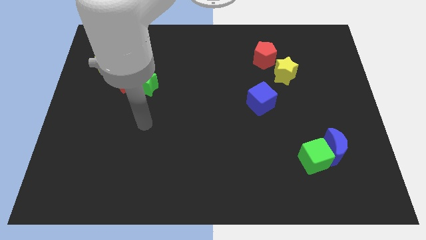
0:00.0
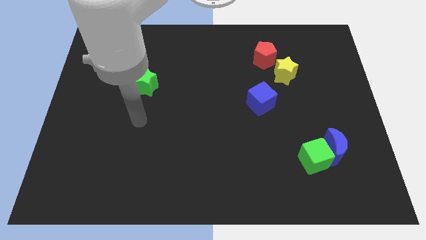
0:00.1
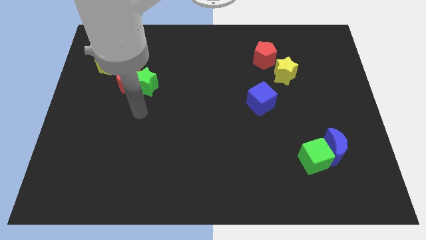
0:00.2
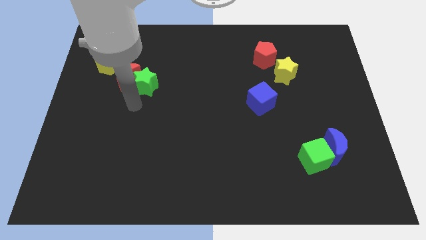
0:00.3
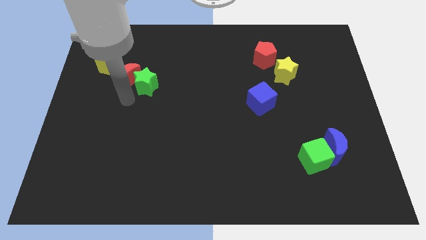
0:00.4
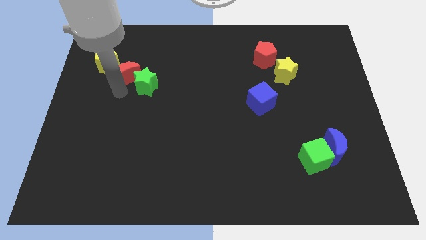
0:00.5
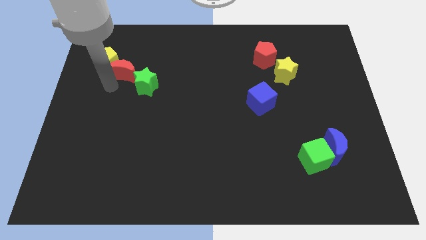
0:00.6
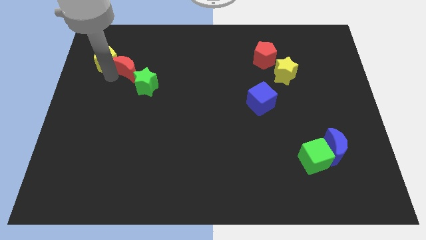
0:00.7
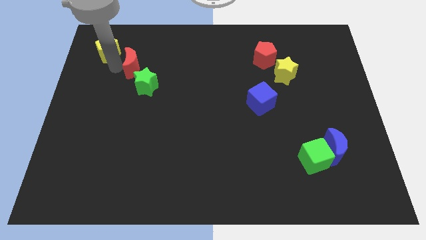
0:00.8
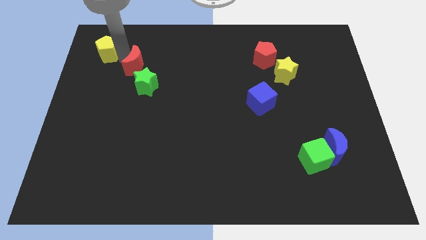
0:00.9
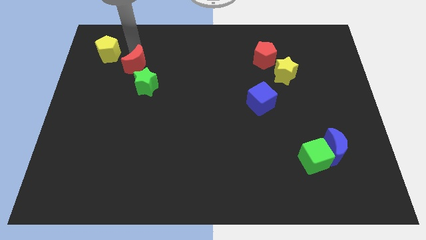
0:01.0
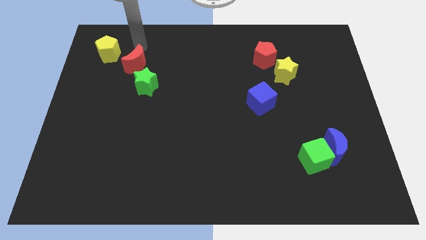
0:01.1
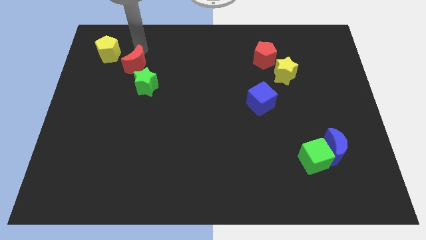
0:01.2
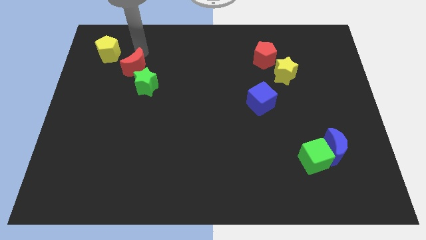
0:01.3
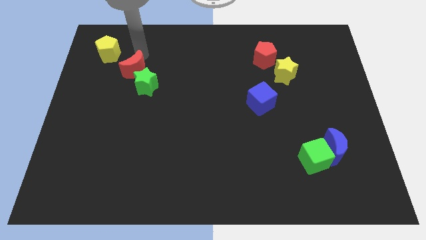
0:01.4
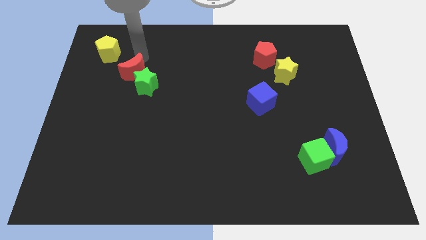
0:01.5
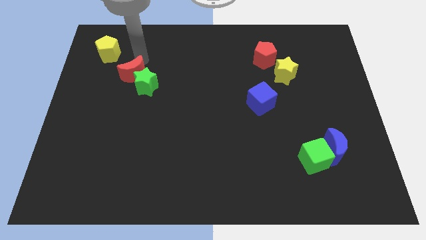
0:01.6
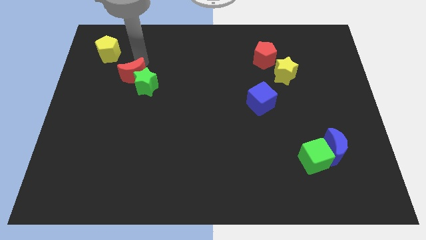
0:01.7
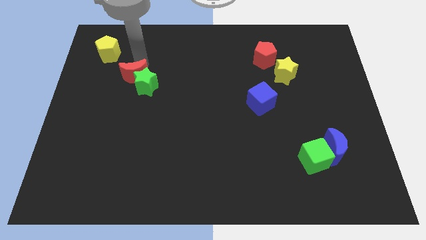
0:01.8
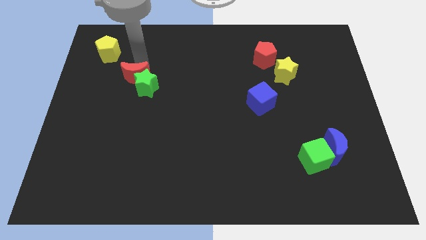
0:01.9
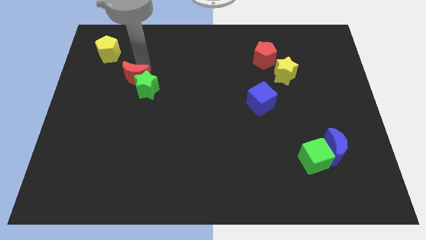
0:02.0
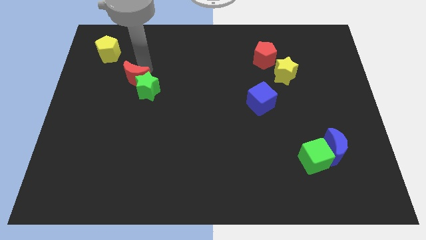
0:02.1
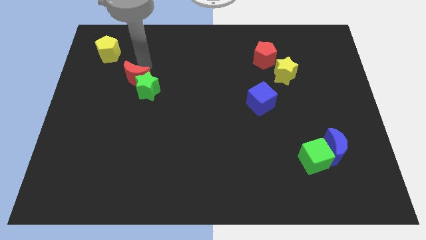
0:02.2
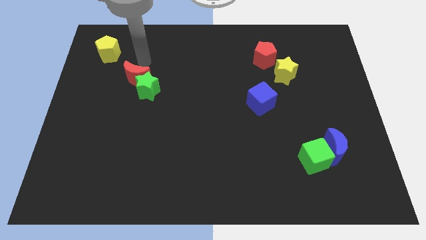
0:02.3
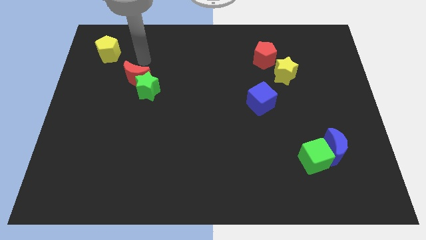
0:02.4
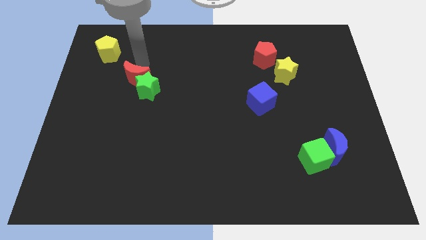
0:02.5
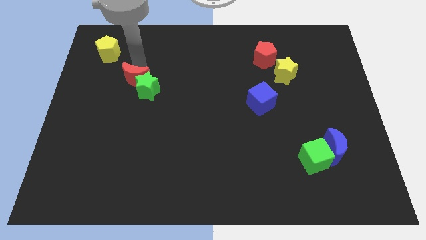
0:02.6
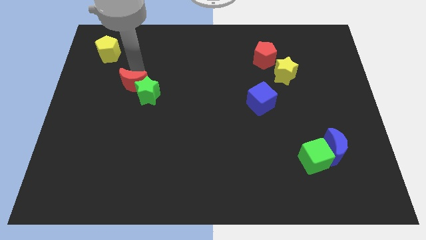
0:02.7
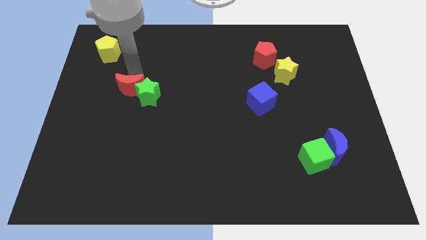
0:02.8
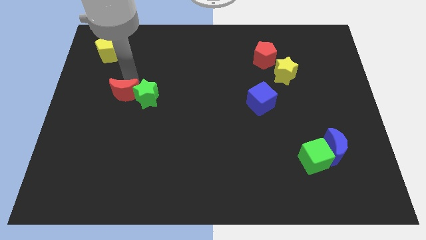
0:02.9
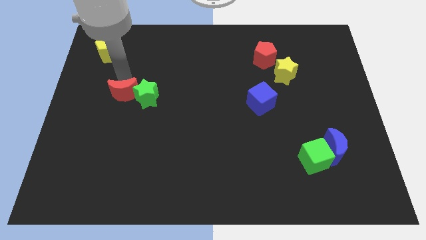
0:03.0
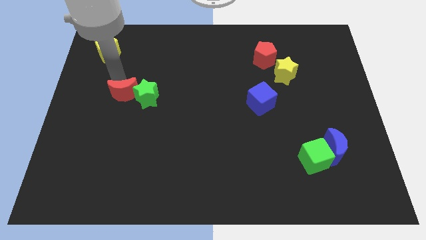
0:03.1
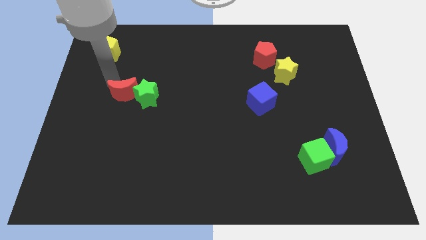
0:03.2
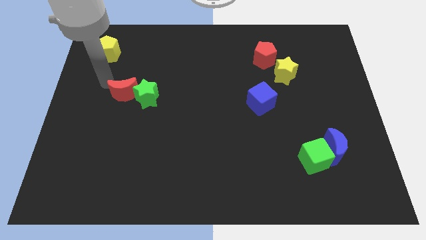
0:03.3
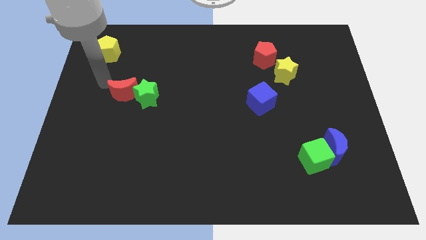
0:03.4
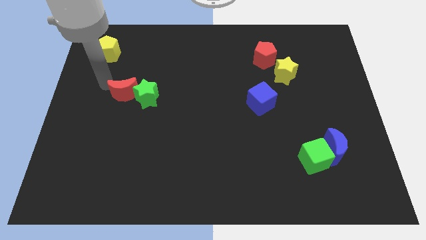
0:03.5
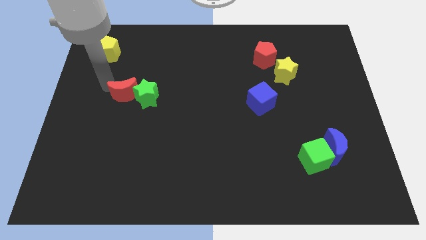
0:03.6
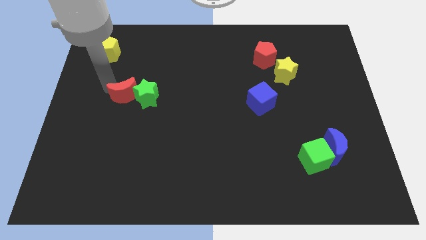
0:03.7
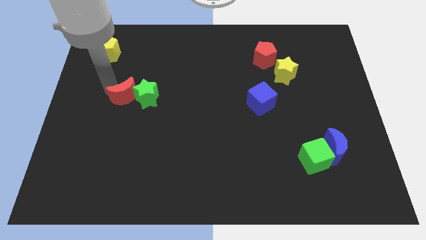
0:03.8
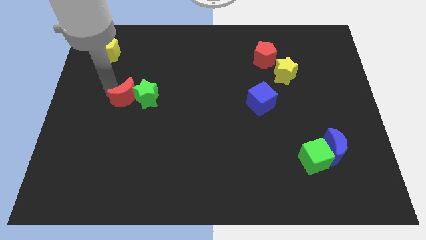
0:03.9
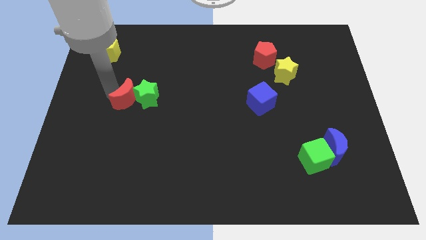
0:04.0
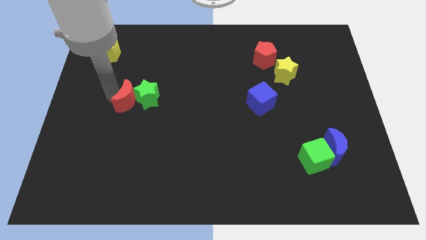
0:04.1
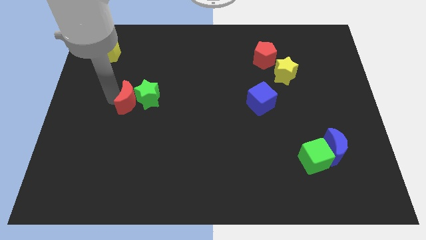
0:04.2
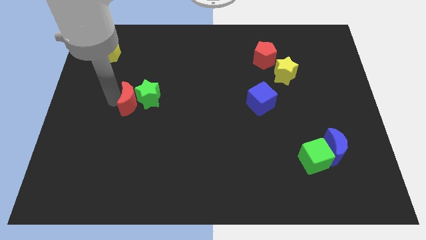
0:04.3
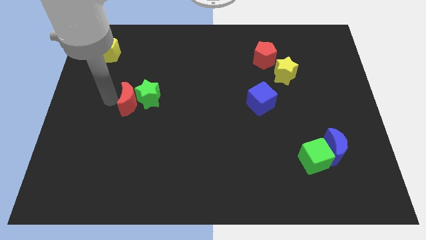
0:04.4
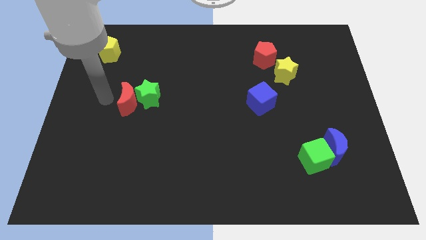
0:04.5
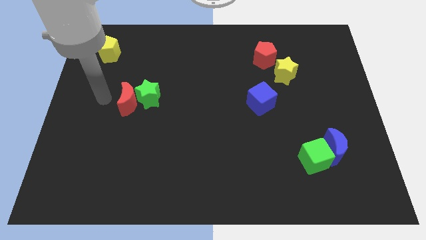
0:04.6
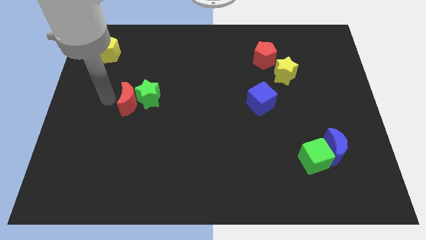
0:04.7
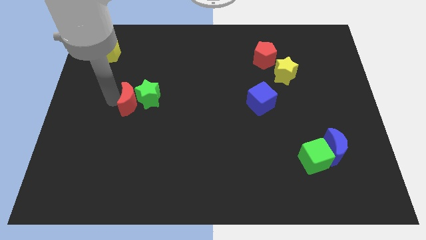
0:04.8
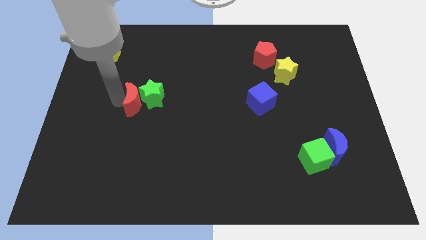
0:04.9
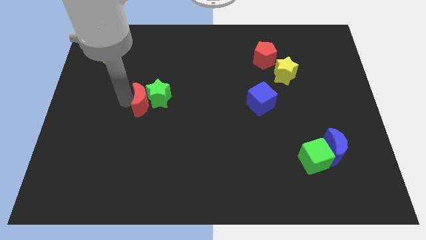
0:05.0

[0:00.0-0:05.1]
slightly move the red moon downwards and then to the right

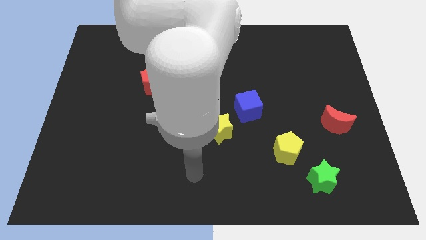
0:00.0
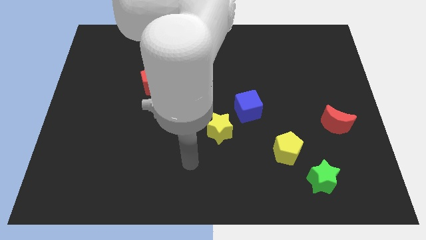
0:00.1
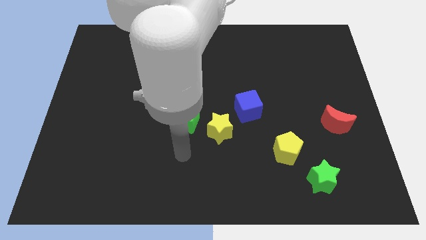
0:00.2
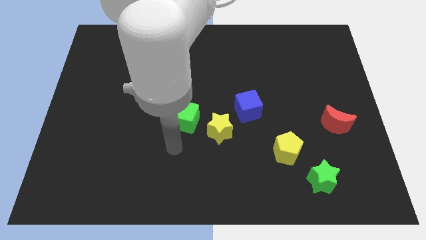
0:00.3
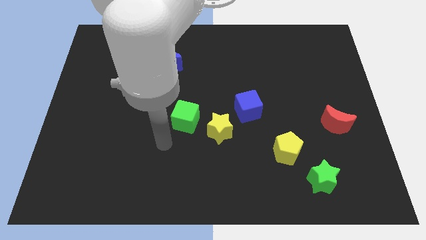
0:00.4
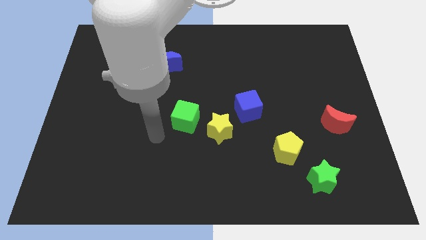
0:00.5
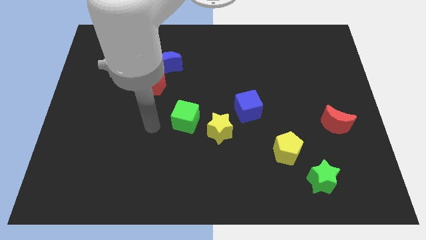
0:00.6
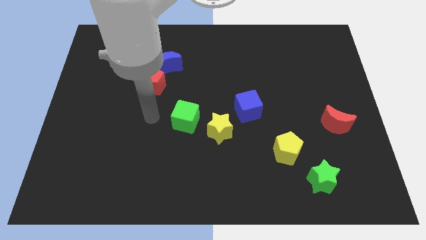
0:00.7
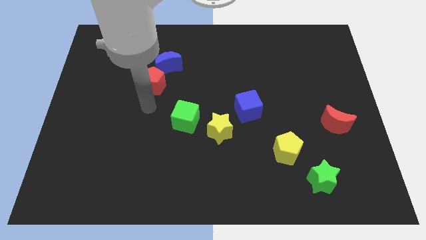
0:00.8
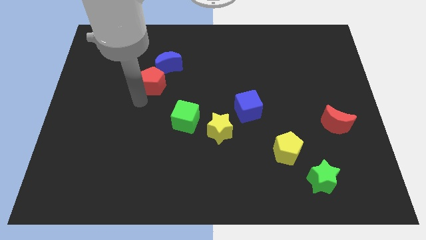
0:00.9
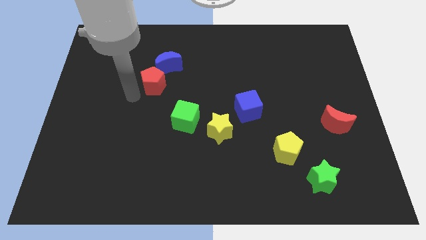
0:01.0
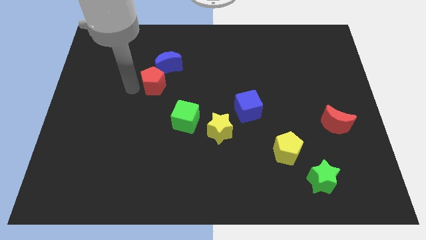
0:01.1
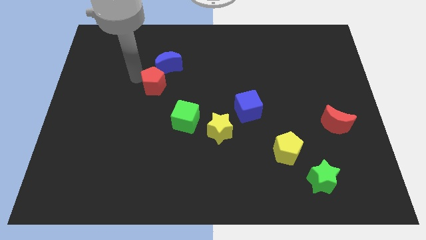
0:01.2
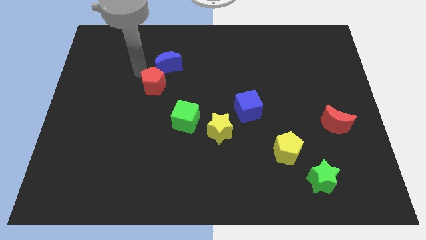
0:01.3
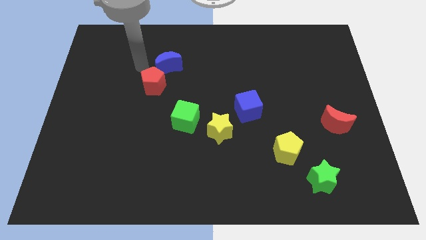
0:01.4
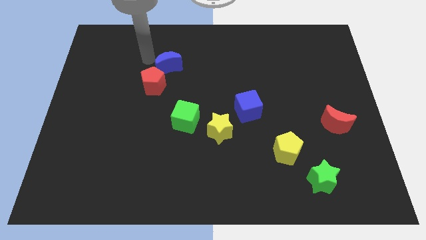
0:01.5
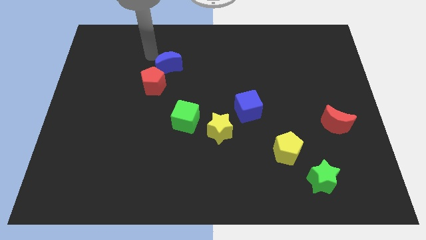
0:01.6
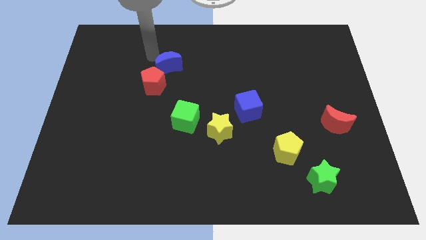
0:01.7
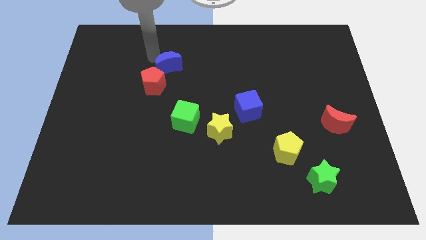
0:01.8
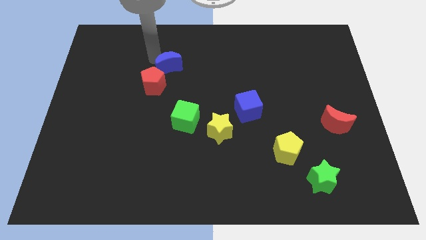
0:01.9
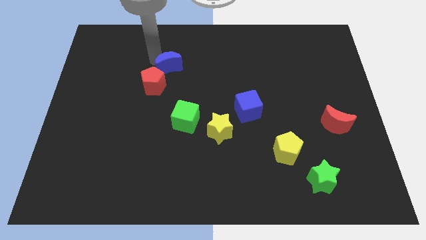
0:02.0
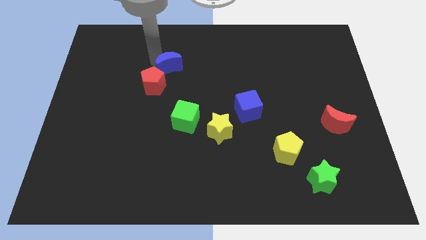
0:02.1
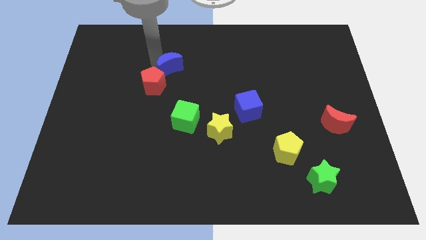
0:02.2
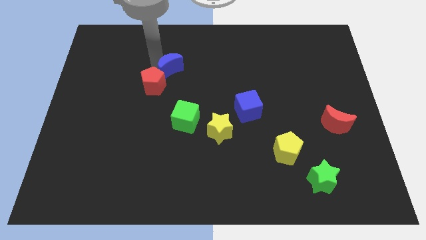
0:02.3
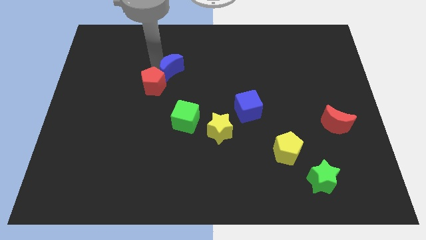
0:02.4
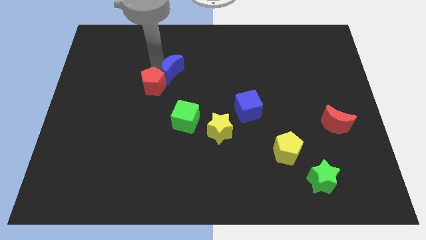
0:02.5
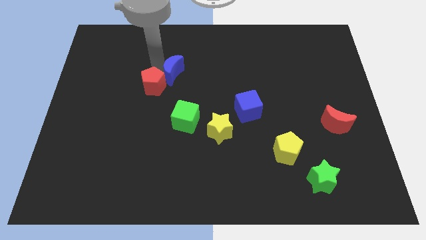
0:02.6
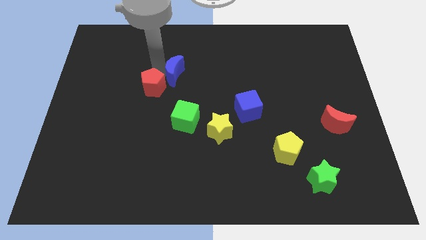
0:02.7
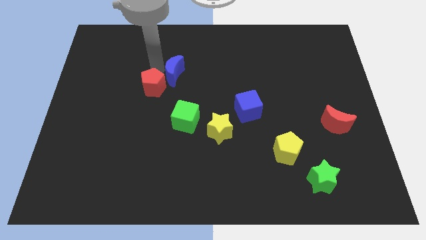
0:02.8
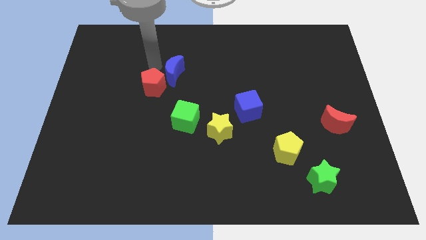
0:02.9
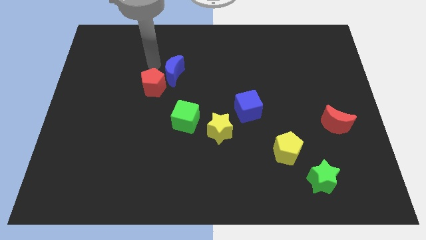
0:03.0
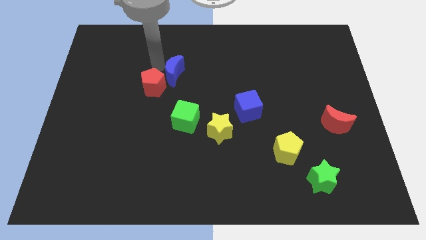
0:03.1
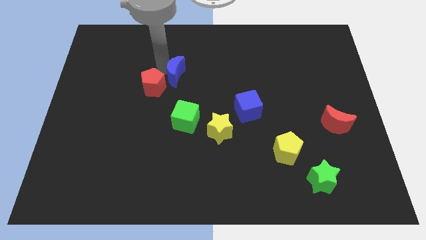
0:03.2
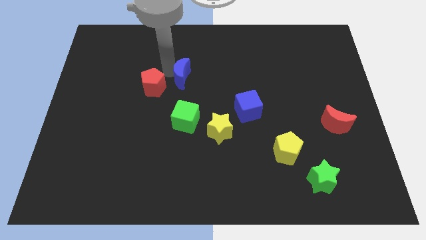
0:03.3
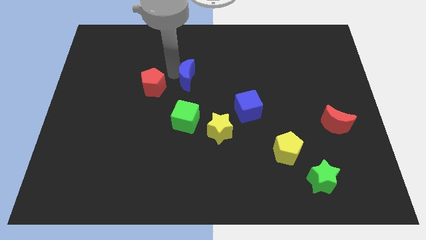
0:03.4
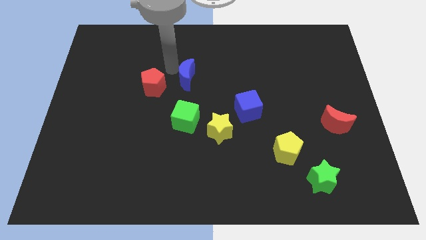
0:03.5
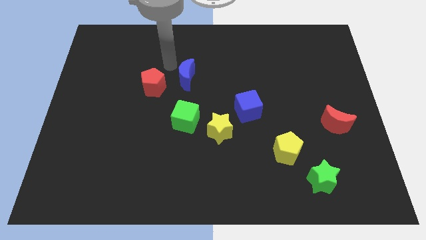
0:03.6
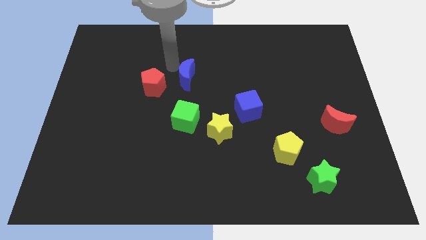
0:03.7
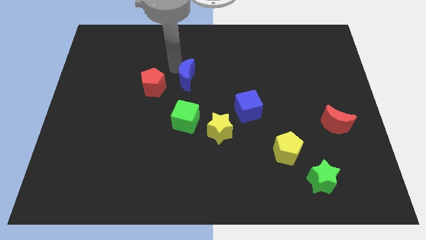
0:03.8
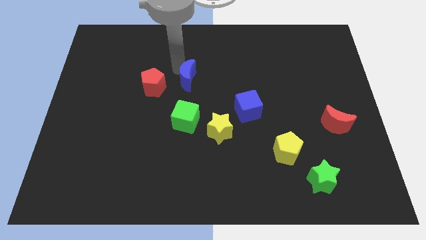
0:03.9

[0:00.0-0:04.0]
slightly move the blue moon down and right diagonally
